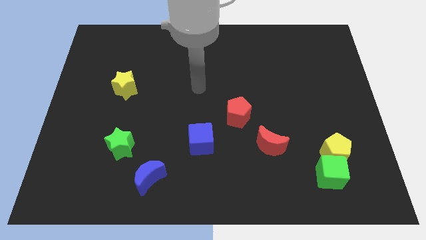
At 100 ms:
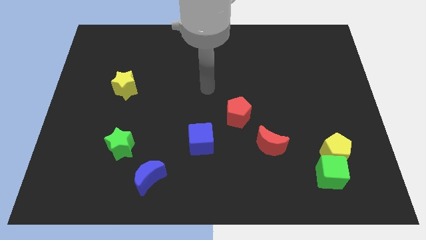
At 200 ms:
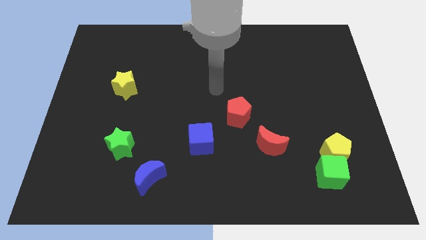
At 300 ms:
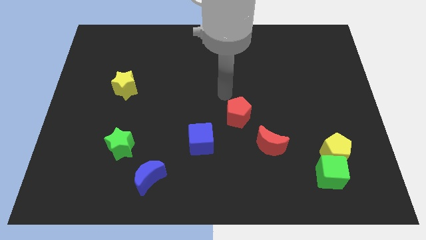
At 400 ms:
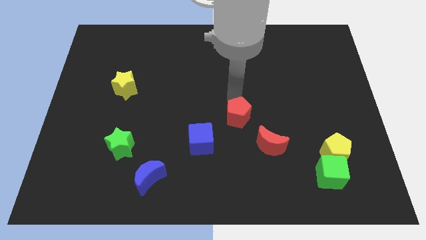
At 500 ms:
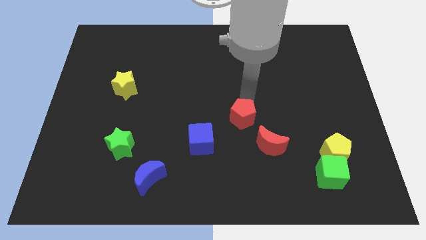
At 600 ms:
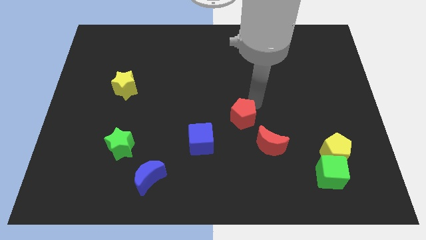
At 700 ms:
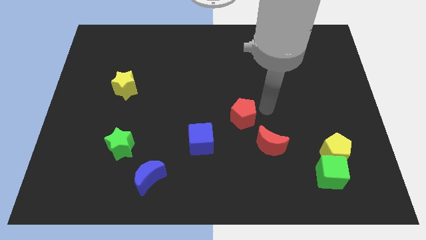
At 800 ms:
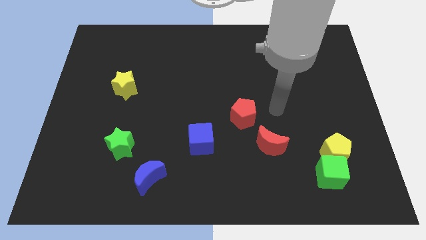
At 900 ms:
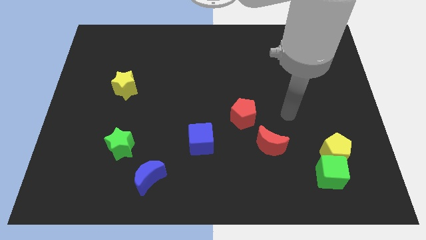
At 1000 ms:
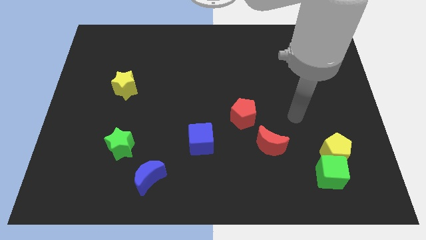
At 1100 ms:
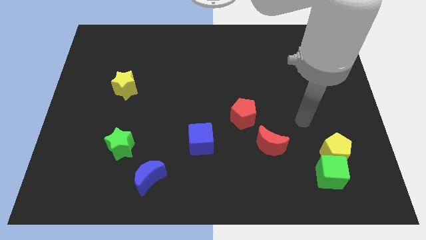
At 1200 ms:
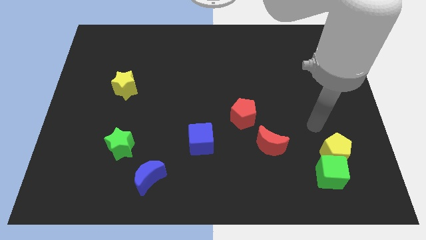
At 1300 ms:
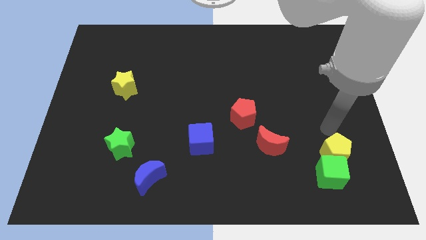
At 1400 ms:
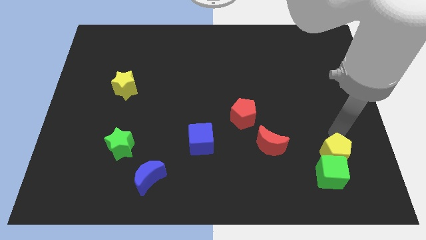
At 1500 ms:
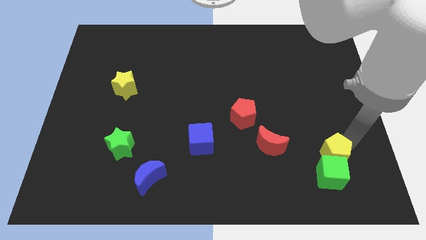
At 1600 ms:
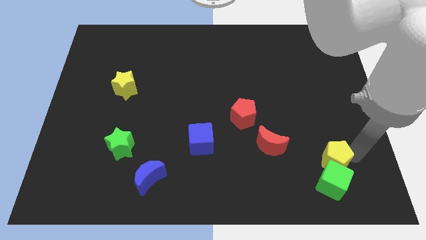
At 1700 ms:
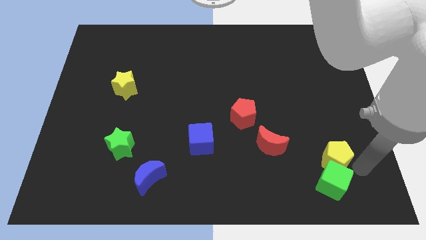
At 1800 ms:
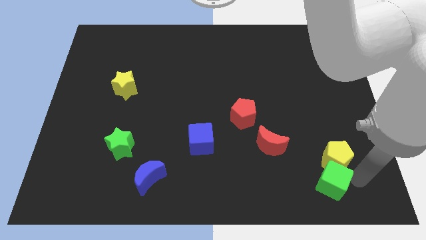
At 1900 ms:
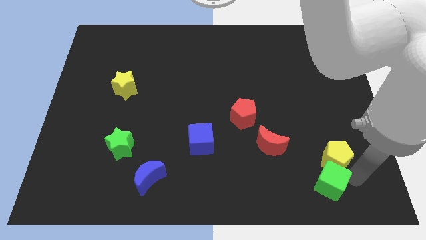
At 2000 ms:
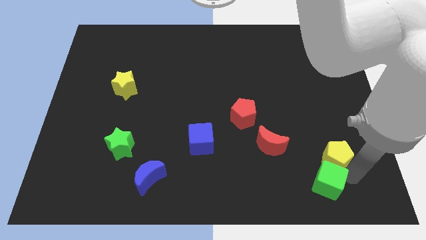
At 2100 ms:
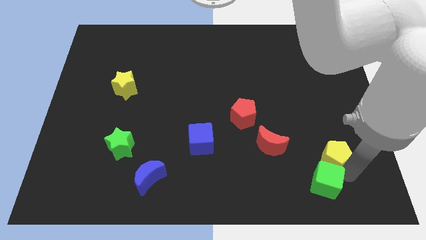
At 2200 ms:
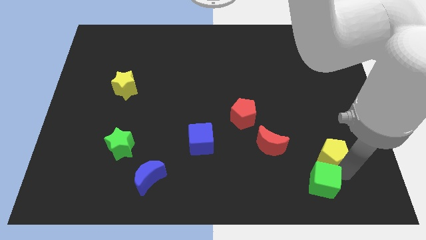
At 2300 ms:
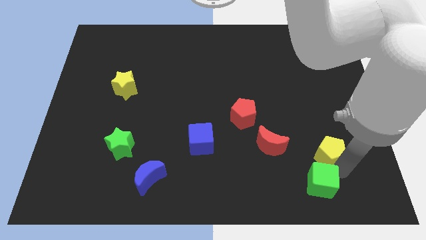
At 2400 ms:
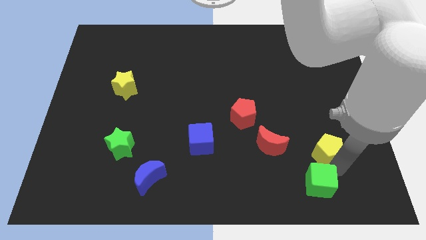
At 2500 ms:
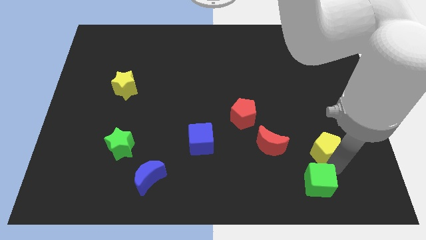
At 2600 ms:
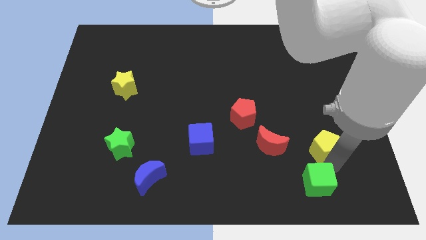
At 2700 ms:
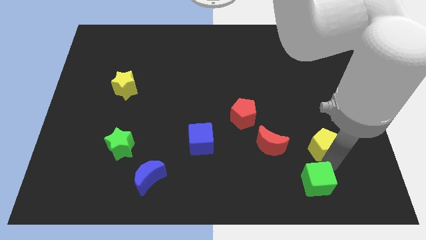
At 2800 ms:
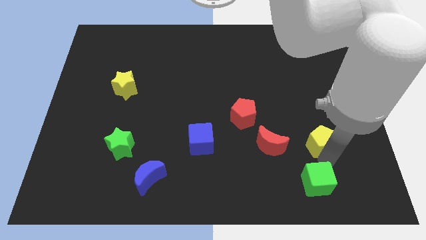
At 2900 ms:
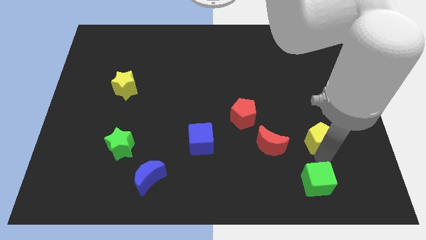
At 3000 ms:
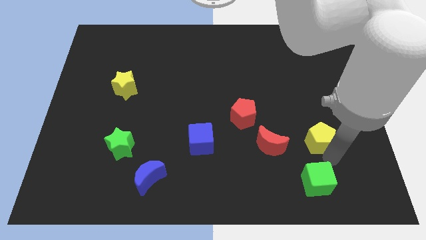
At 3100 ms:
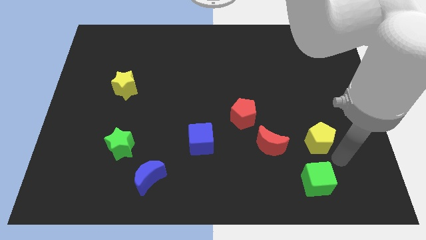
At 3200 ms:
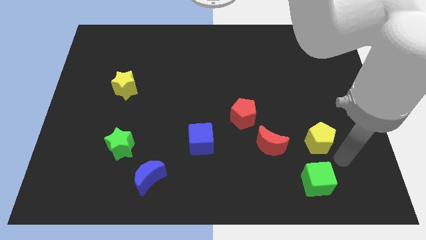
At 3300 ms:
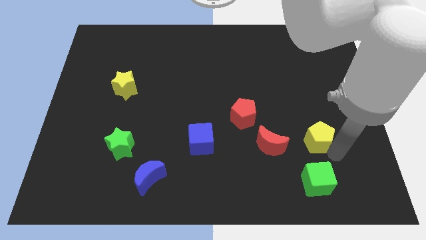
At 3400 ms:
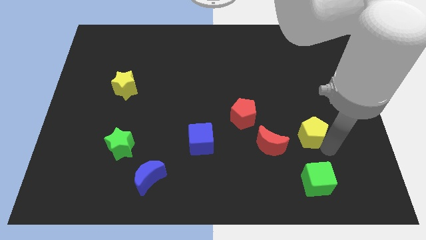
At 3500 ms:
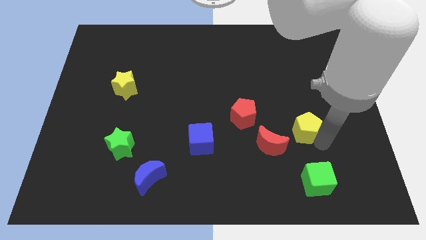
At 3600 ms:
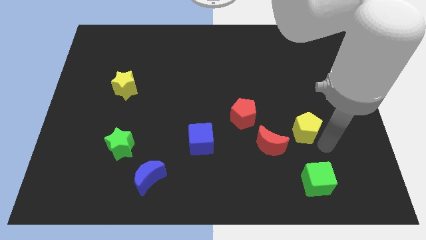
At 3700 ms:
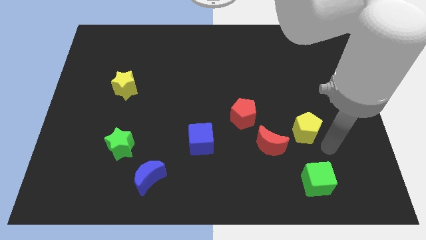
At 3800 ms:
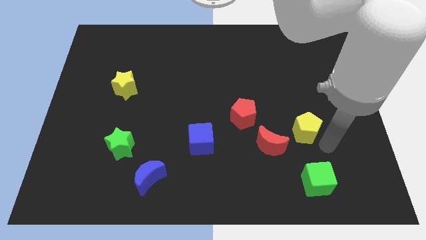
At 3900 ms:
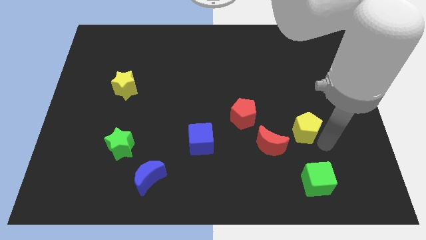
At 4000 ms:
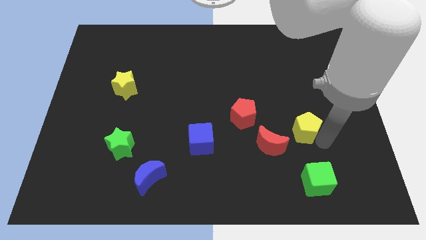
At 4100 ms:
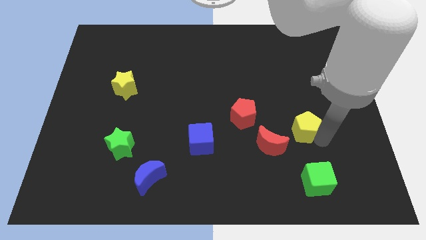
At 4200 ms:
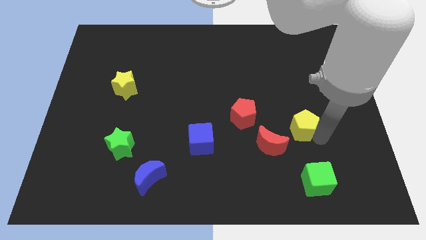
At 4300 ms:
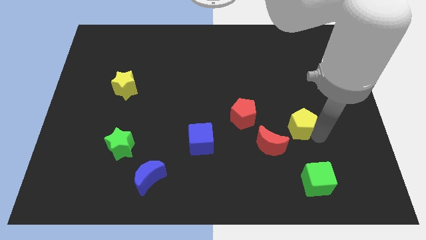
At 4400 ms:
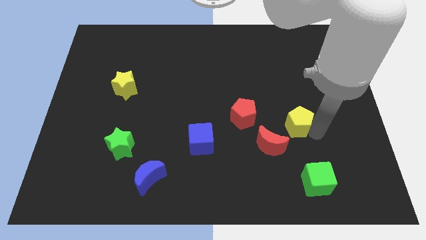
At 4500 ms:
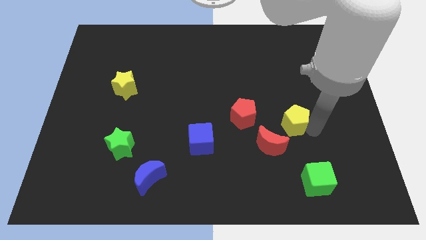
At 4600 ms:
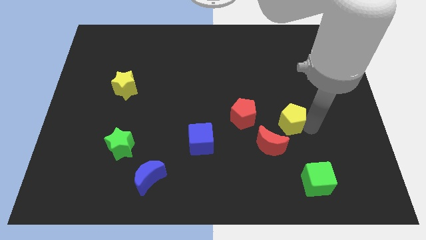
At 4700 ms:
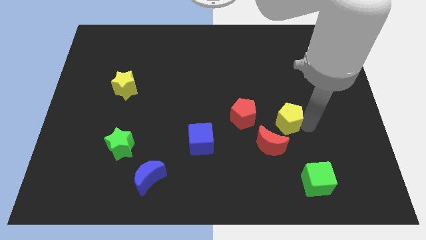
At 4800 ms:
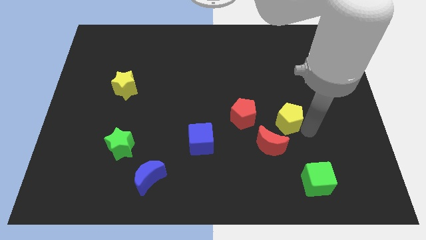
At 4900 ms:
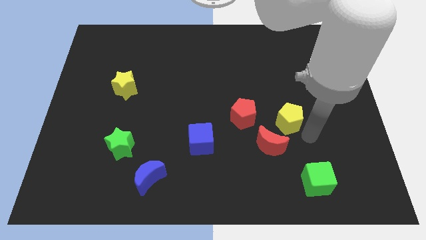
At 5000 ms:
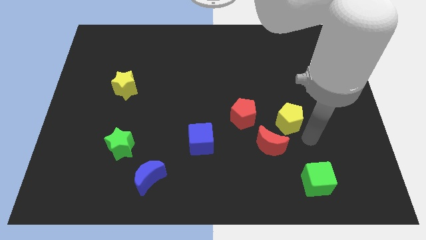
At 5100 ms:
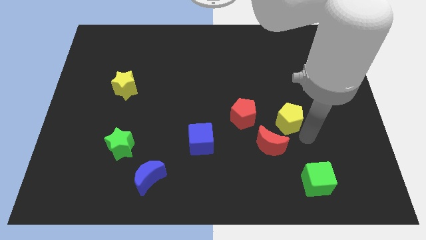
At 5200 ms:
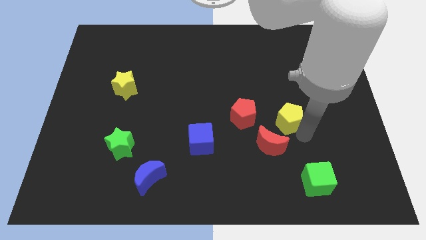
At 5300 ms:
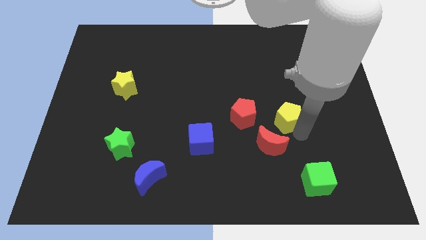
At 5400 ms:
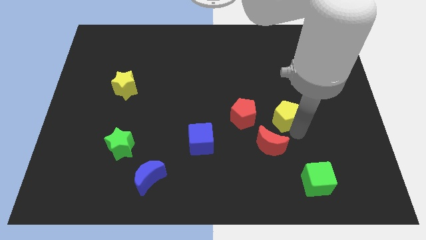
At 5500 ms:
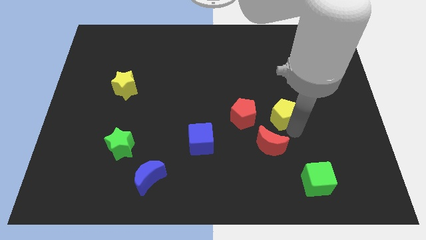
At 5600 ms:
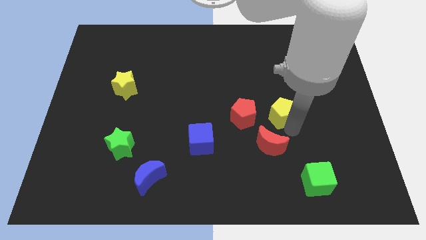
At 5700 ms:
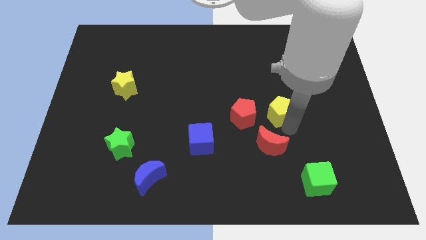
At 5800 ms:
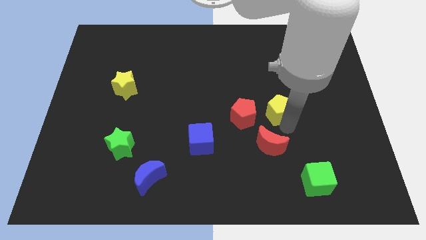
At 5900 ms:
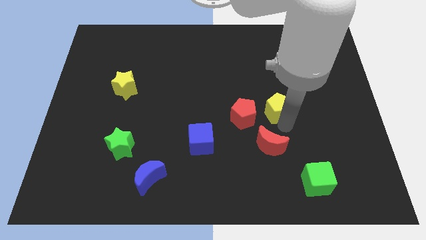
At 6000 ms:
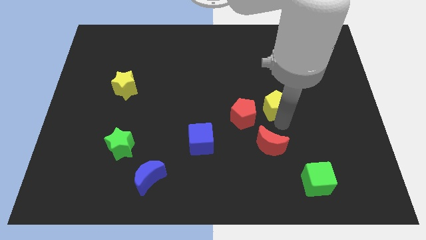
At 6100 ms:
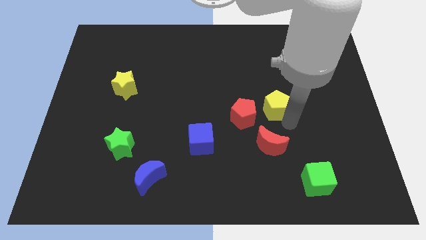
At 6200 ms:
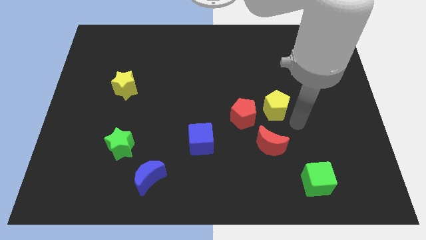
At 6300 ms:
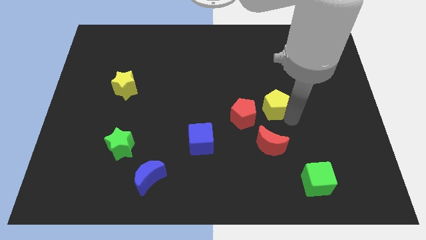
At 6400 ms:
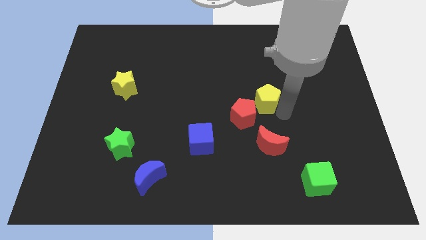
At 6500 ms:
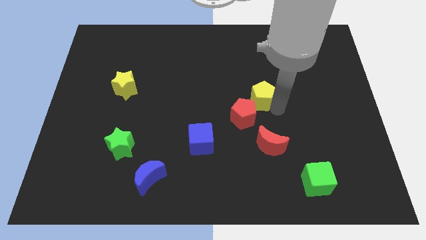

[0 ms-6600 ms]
push the yellow pentagon up and then to the left

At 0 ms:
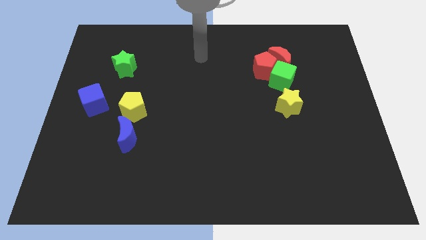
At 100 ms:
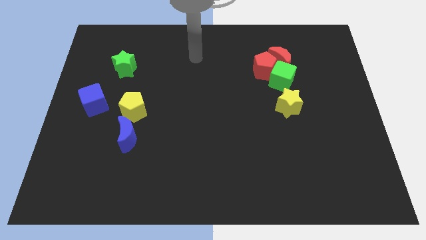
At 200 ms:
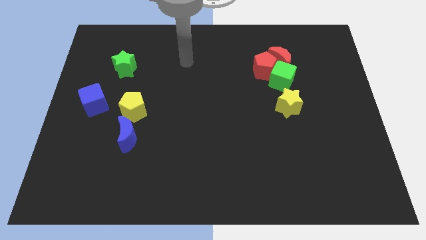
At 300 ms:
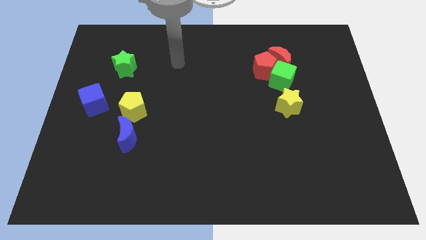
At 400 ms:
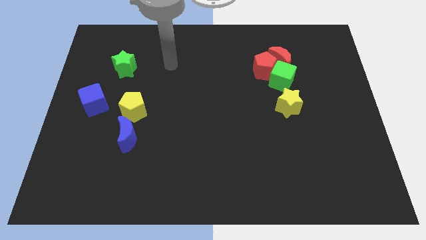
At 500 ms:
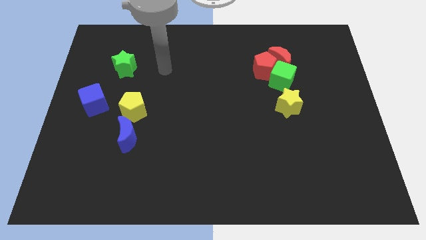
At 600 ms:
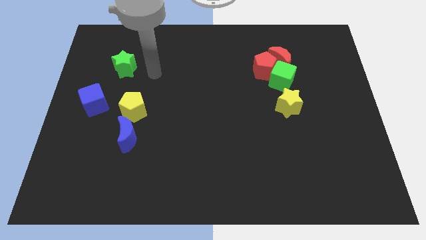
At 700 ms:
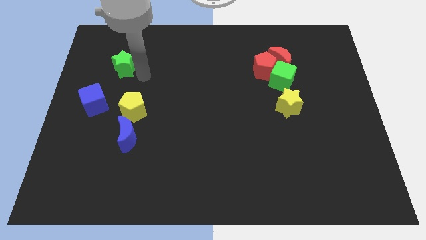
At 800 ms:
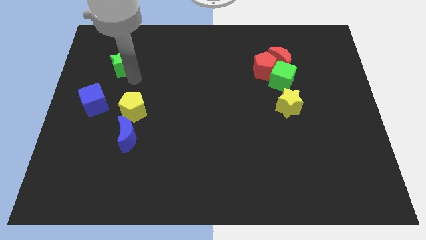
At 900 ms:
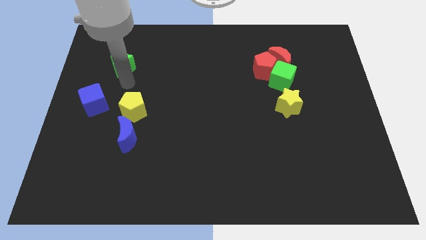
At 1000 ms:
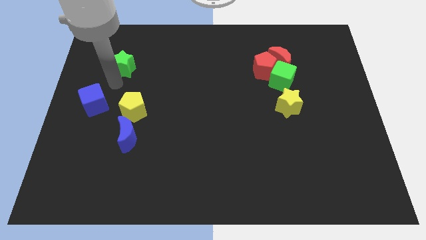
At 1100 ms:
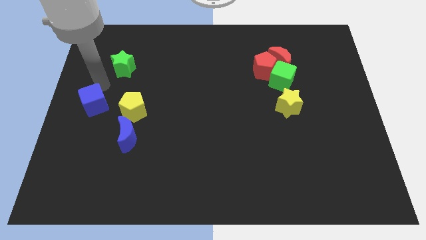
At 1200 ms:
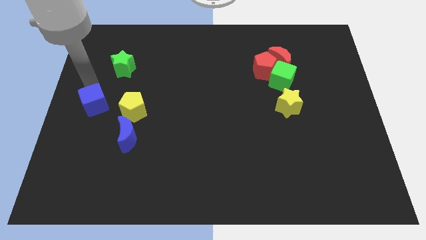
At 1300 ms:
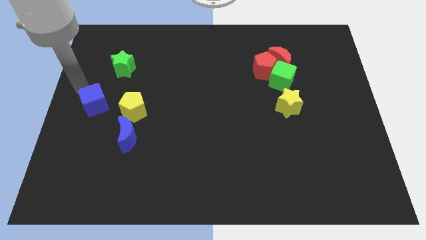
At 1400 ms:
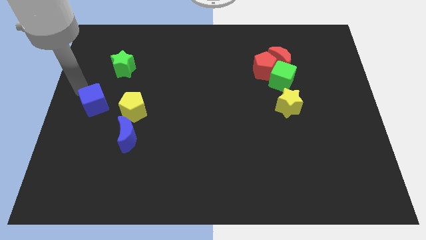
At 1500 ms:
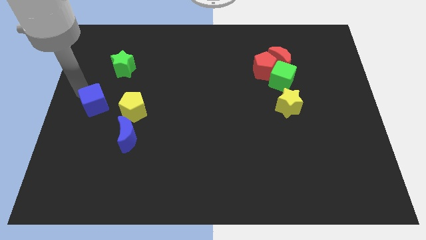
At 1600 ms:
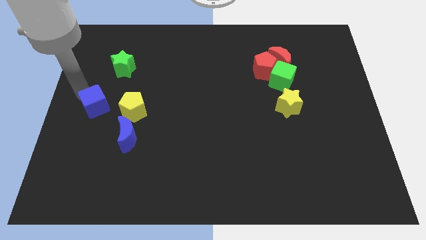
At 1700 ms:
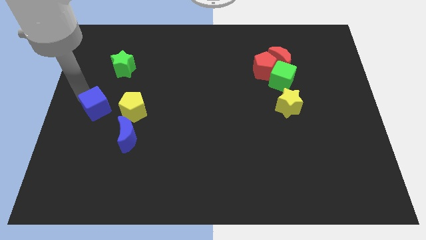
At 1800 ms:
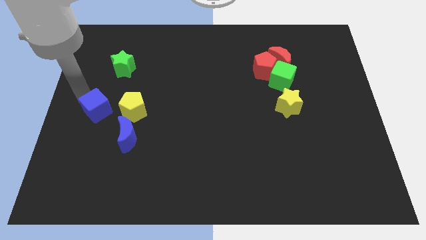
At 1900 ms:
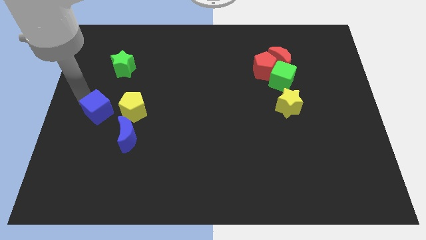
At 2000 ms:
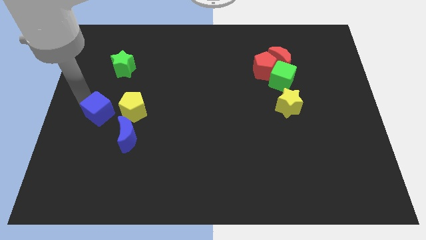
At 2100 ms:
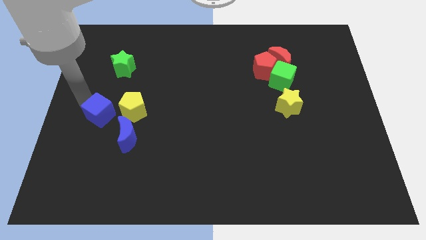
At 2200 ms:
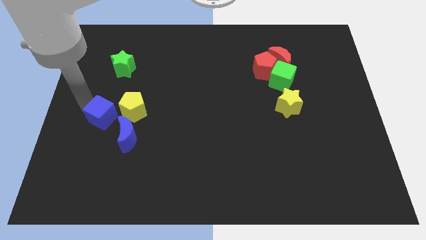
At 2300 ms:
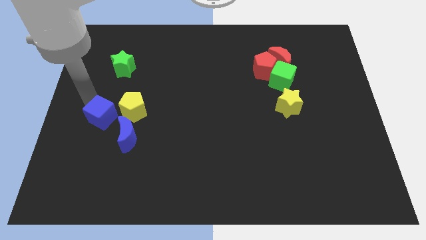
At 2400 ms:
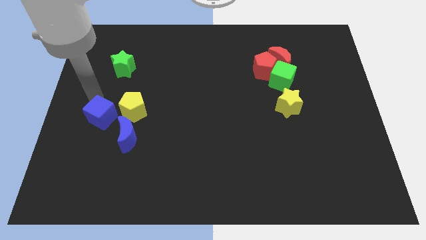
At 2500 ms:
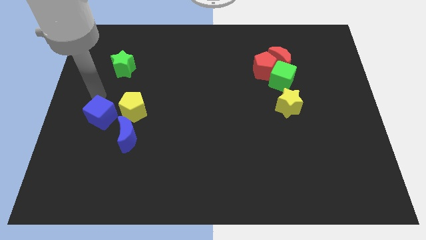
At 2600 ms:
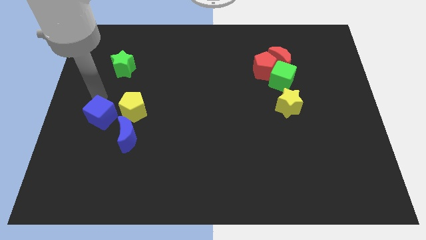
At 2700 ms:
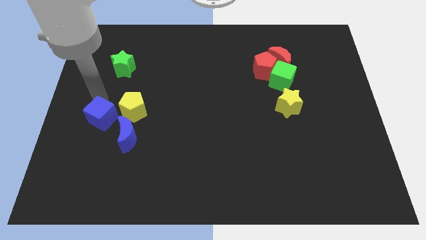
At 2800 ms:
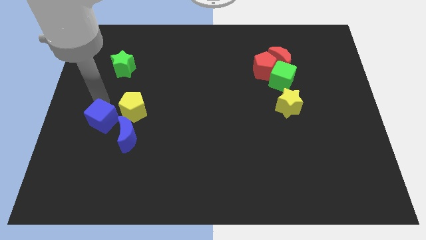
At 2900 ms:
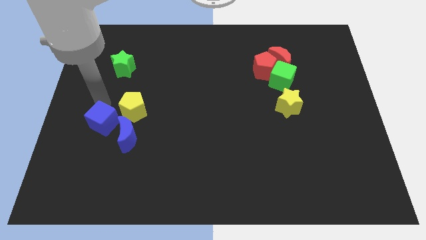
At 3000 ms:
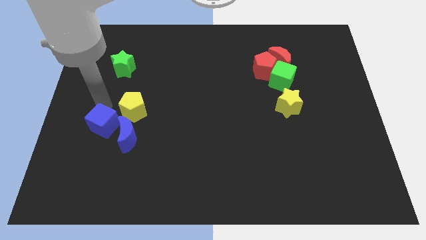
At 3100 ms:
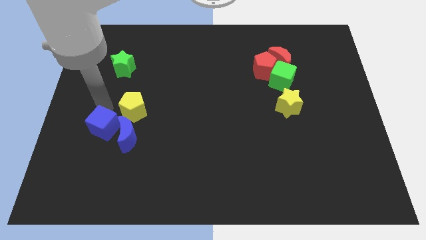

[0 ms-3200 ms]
push the blue cube slightly down and right diagonally
